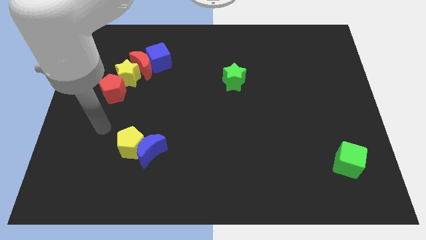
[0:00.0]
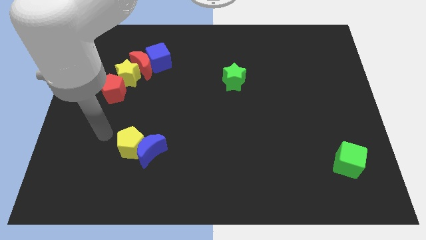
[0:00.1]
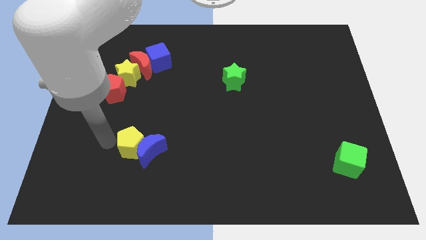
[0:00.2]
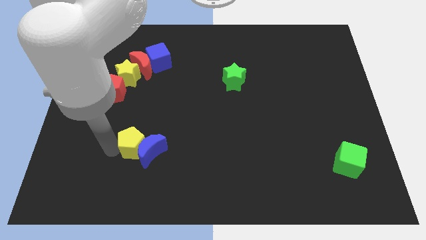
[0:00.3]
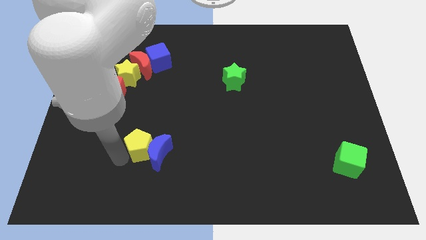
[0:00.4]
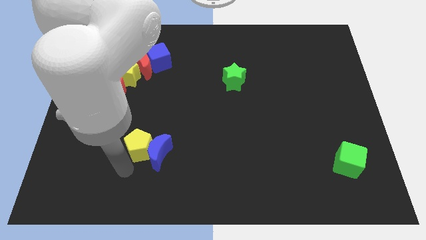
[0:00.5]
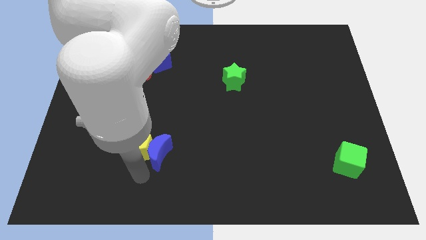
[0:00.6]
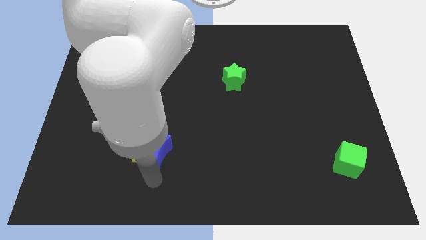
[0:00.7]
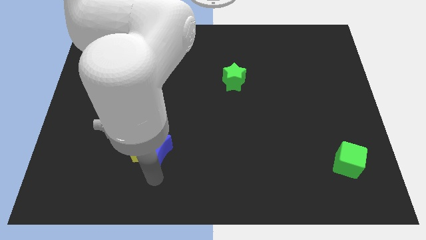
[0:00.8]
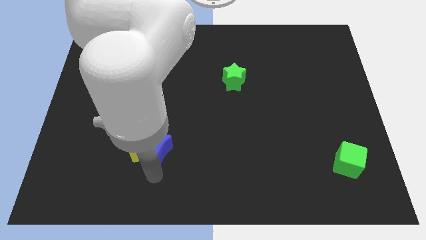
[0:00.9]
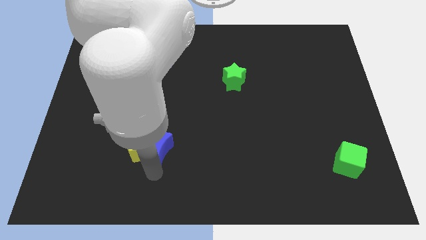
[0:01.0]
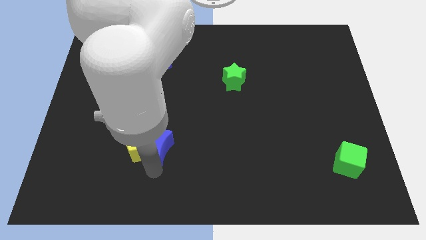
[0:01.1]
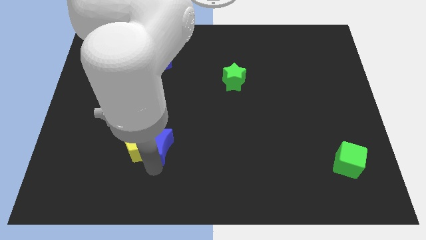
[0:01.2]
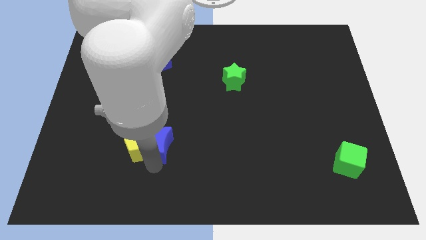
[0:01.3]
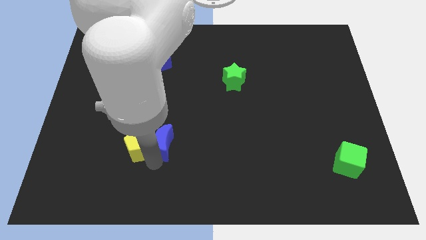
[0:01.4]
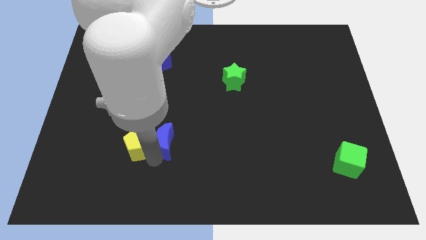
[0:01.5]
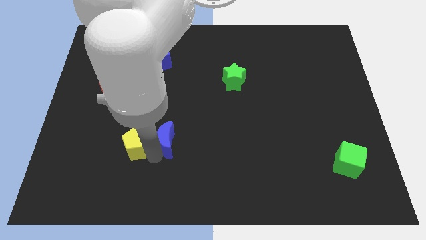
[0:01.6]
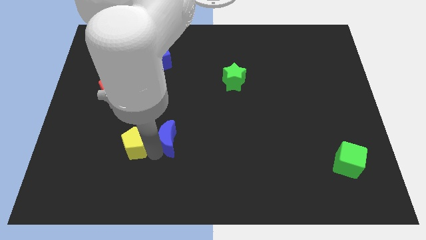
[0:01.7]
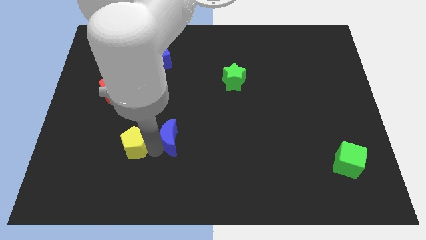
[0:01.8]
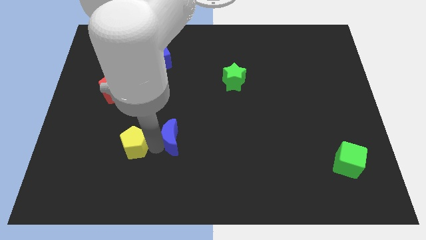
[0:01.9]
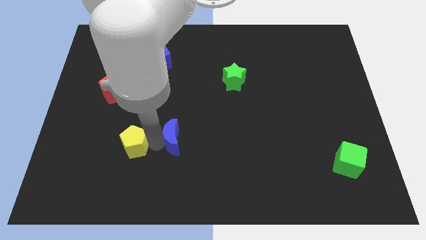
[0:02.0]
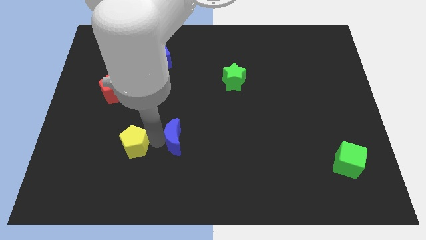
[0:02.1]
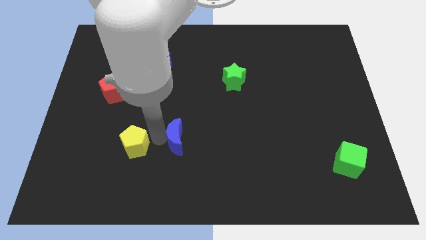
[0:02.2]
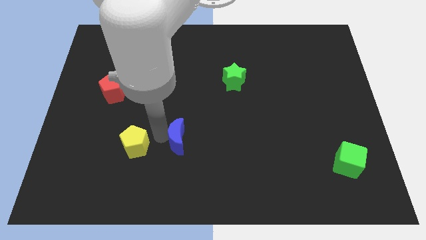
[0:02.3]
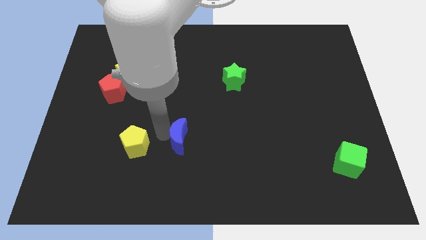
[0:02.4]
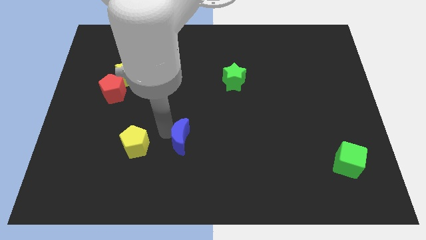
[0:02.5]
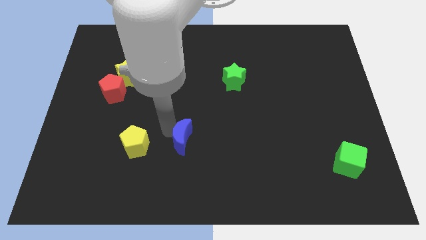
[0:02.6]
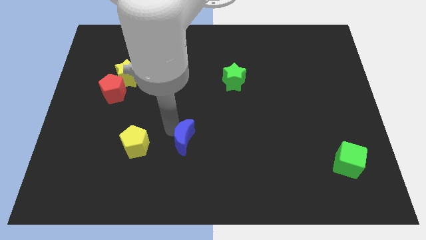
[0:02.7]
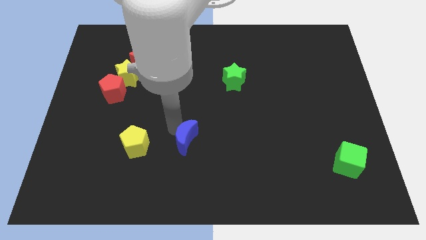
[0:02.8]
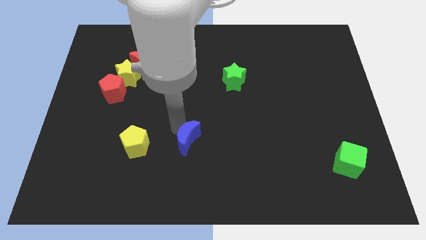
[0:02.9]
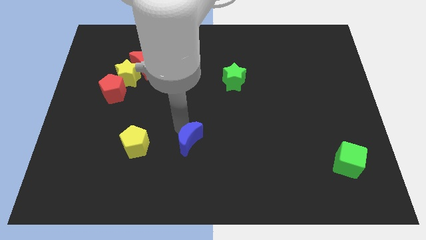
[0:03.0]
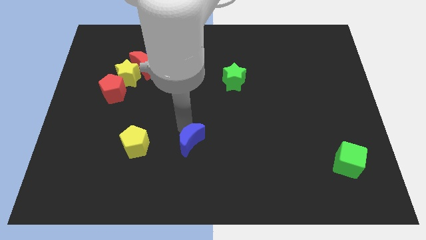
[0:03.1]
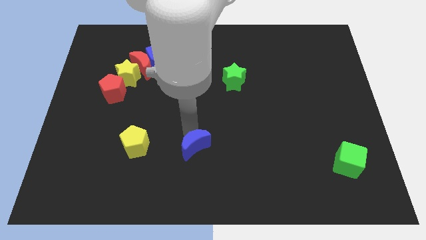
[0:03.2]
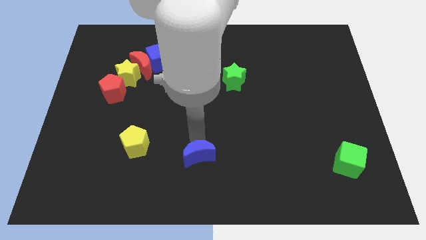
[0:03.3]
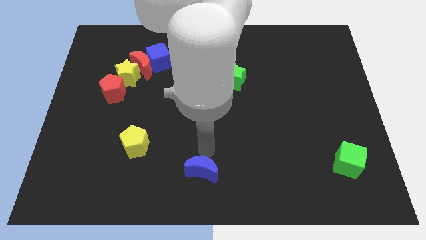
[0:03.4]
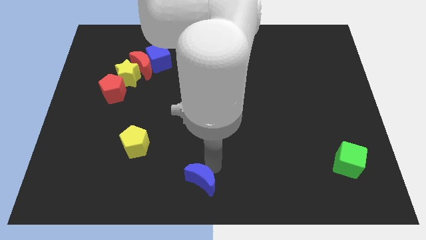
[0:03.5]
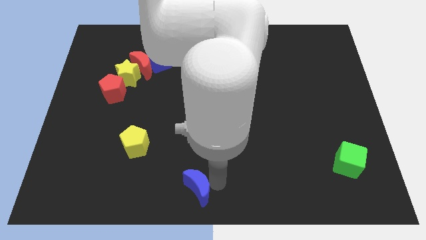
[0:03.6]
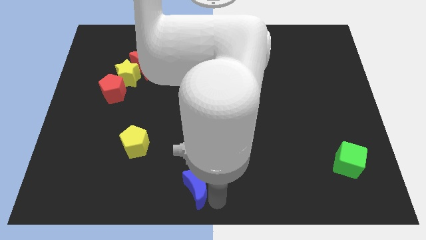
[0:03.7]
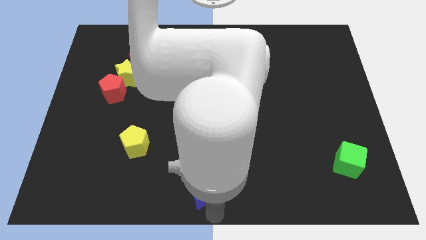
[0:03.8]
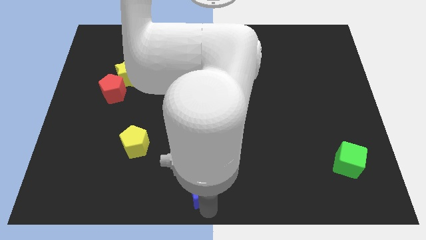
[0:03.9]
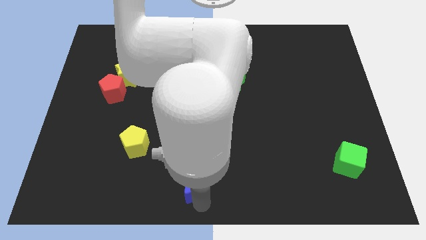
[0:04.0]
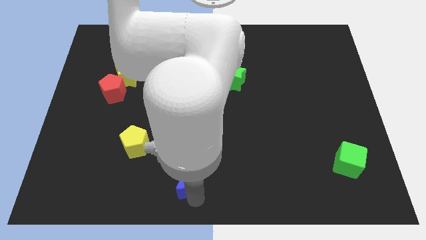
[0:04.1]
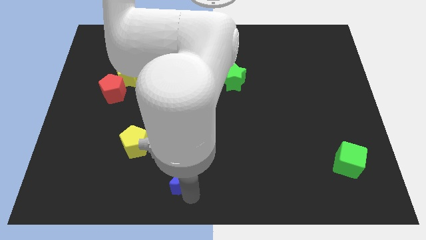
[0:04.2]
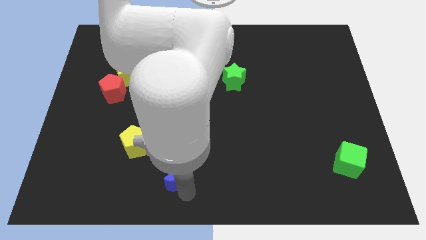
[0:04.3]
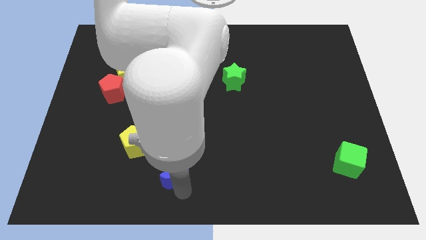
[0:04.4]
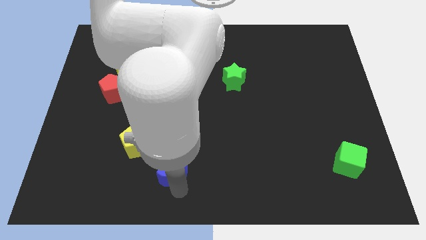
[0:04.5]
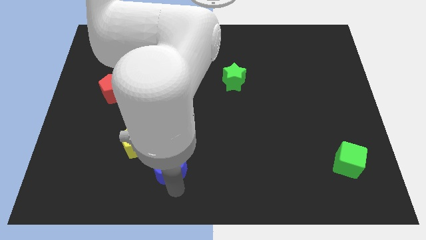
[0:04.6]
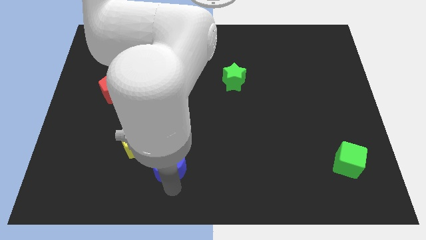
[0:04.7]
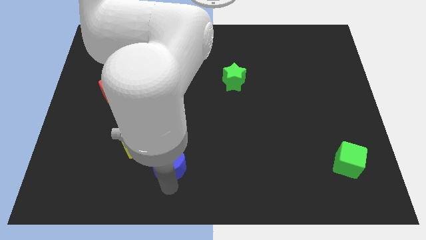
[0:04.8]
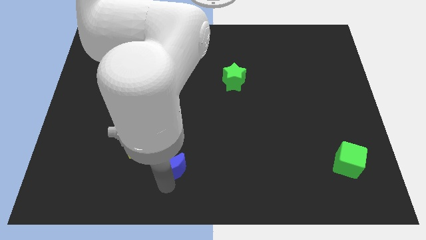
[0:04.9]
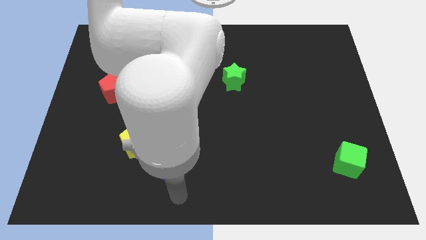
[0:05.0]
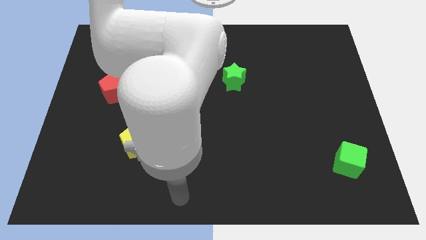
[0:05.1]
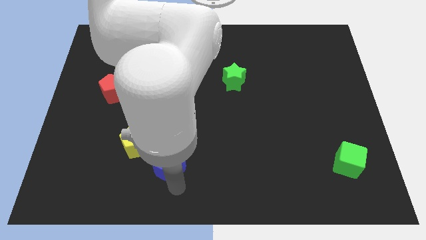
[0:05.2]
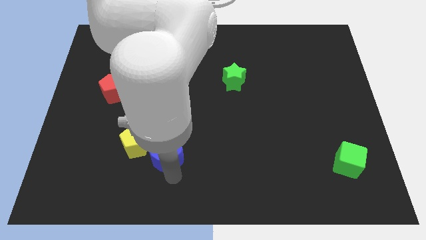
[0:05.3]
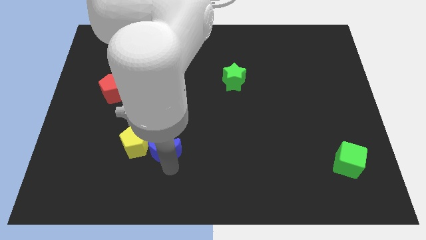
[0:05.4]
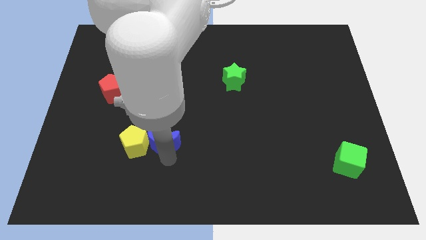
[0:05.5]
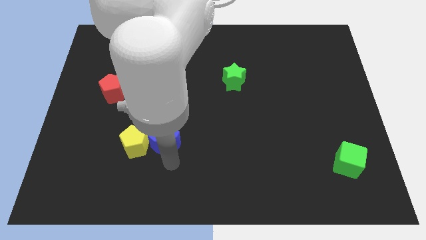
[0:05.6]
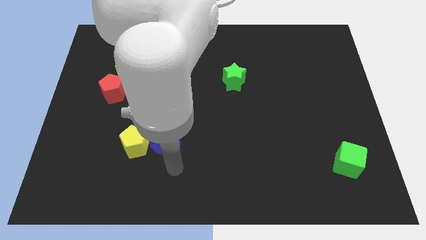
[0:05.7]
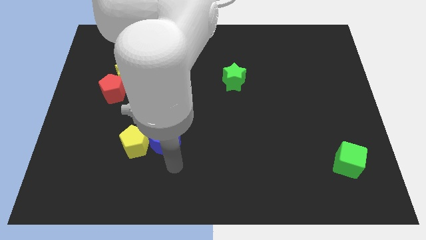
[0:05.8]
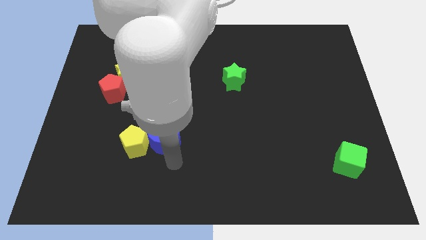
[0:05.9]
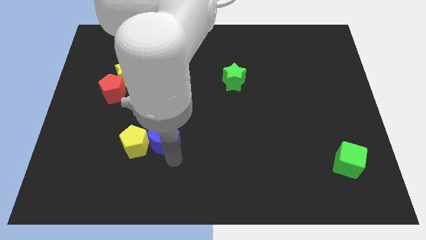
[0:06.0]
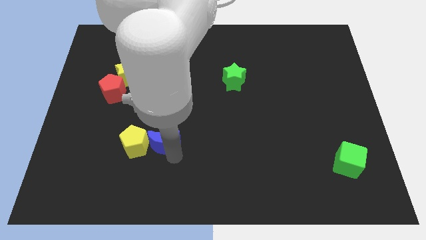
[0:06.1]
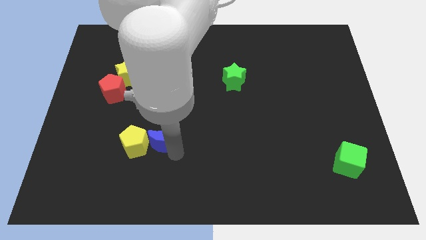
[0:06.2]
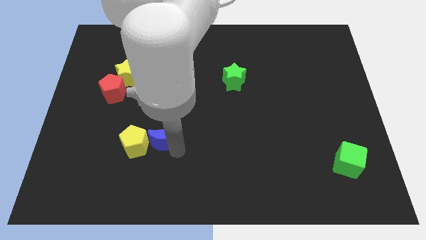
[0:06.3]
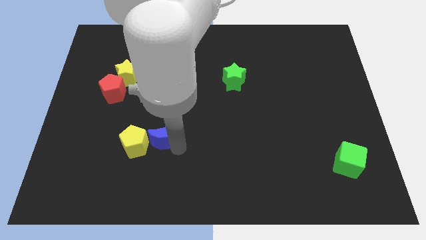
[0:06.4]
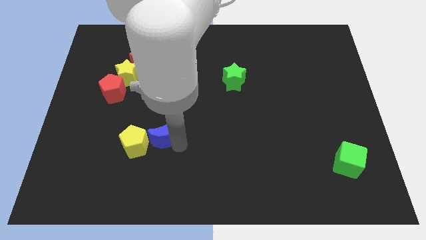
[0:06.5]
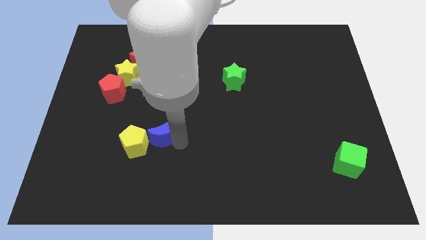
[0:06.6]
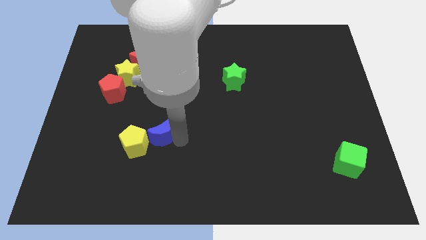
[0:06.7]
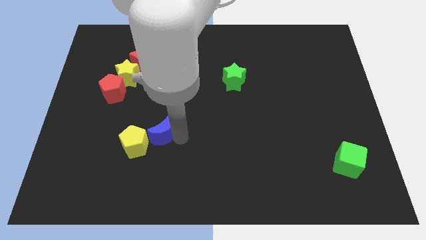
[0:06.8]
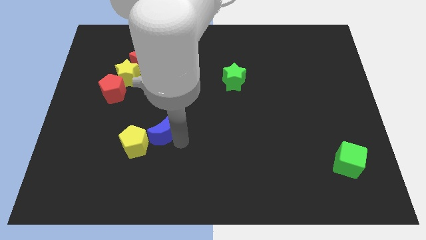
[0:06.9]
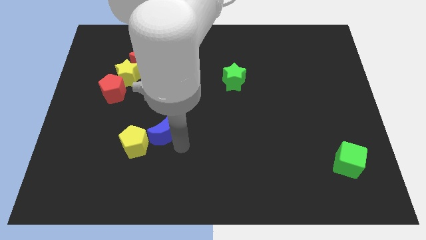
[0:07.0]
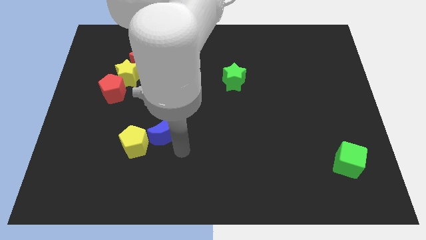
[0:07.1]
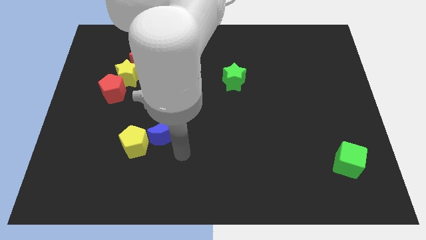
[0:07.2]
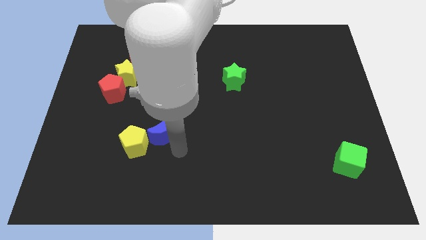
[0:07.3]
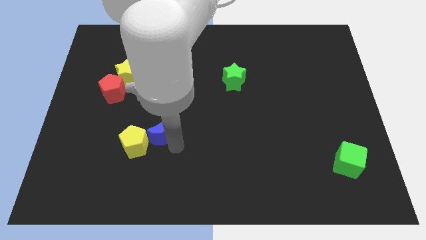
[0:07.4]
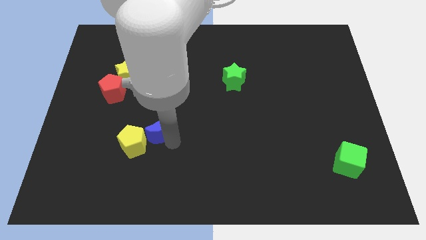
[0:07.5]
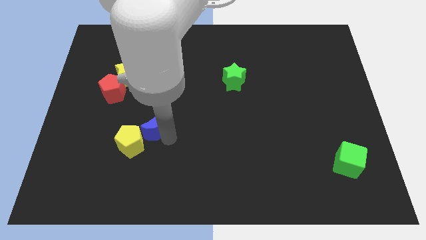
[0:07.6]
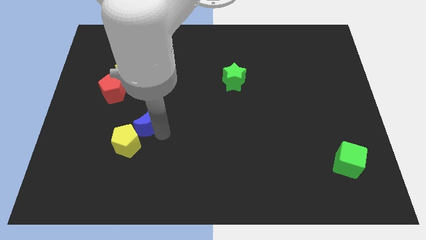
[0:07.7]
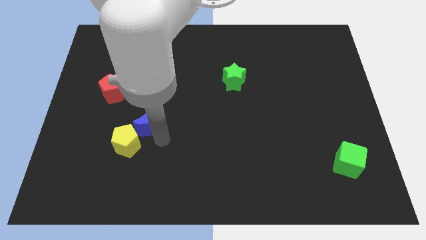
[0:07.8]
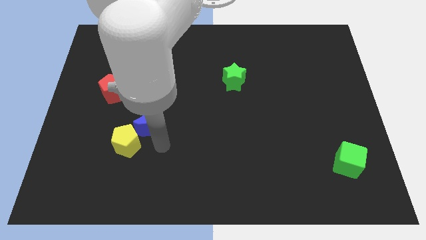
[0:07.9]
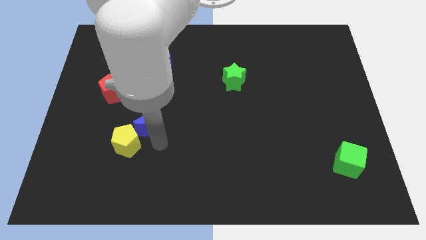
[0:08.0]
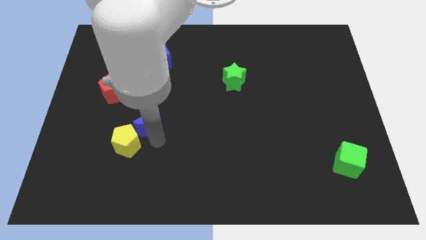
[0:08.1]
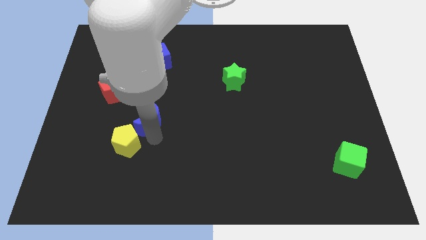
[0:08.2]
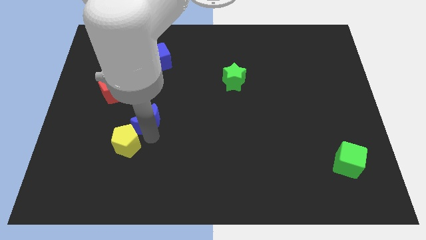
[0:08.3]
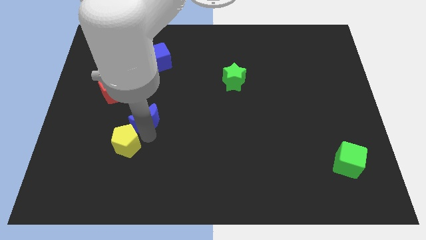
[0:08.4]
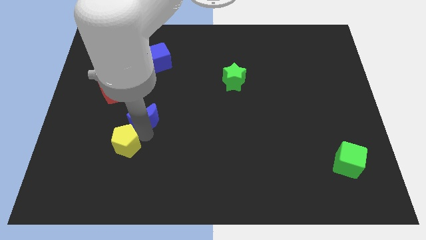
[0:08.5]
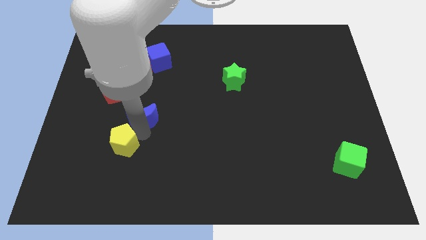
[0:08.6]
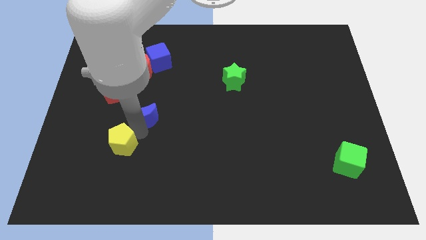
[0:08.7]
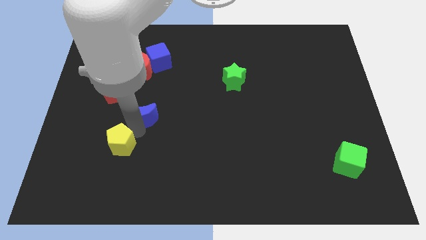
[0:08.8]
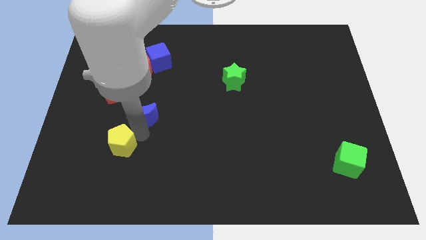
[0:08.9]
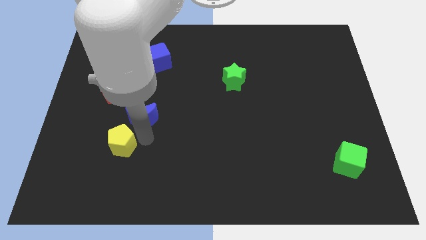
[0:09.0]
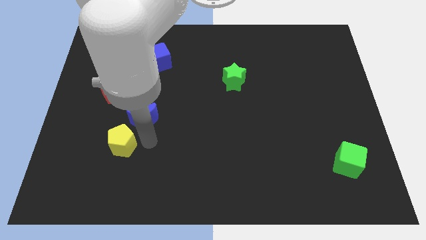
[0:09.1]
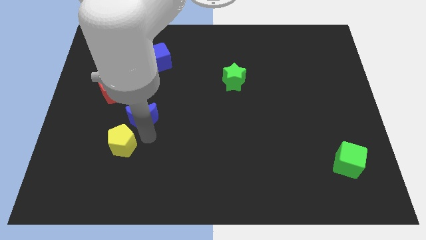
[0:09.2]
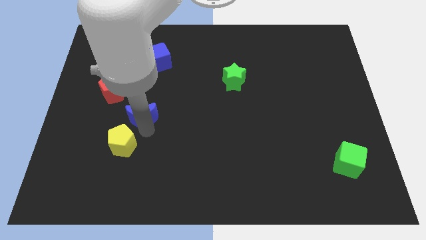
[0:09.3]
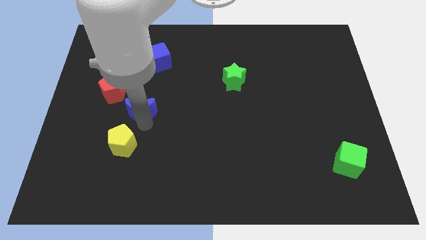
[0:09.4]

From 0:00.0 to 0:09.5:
put the blue moon below the red moon
